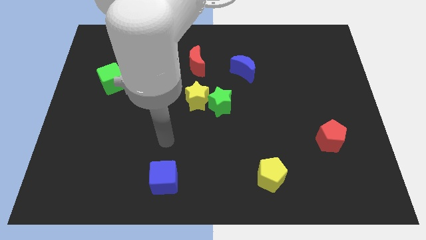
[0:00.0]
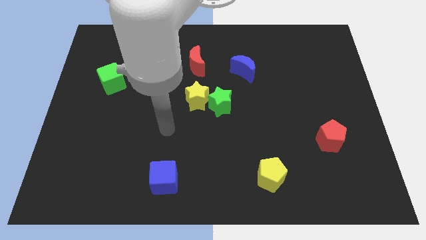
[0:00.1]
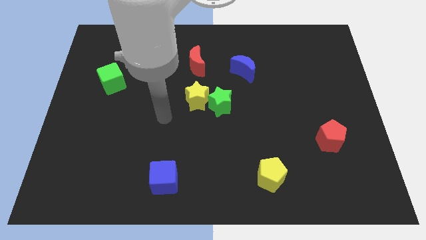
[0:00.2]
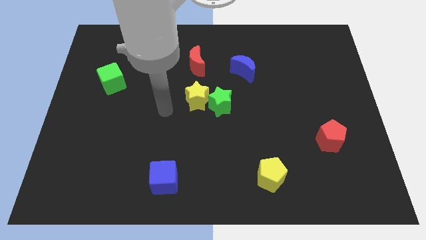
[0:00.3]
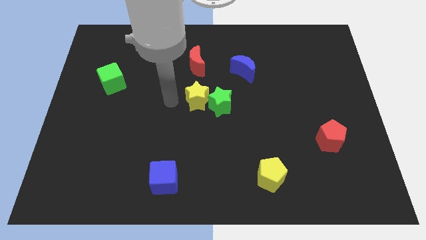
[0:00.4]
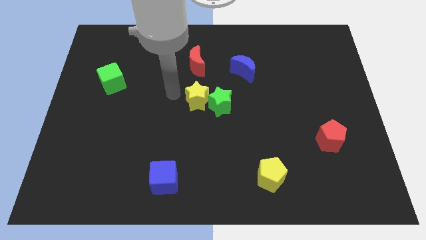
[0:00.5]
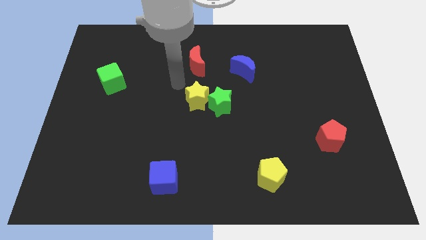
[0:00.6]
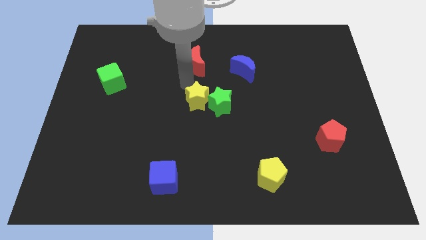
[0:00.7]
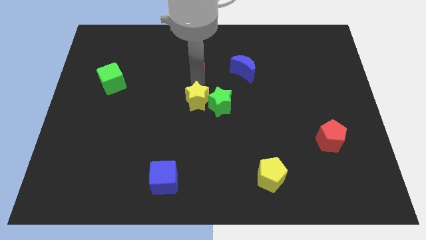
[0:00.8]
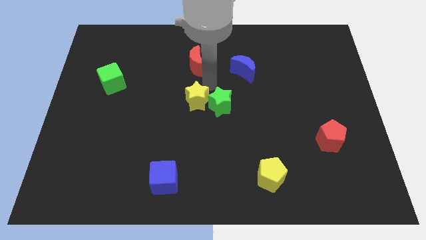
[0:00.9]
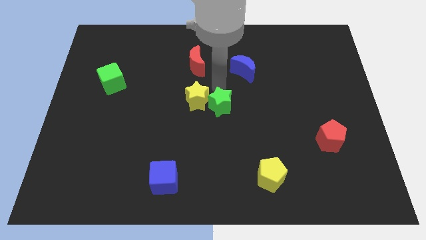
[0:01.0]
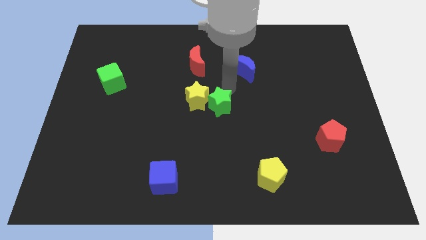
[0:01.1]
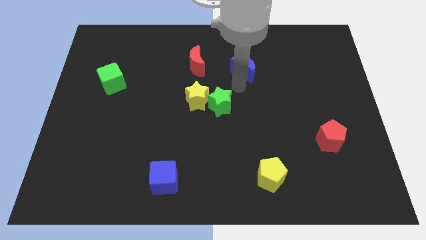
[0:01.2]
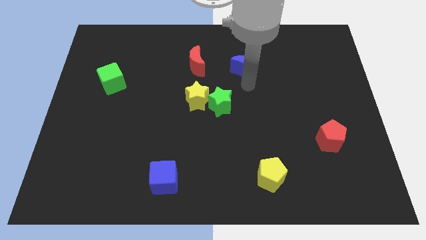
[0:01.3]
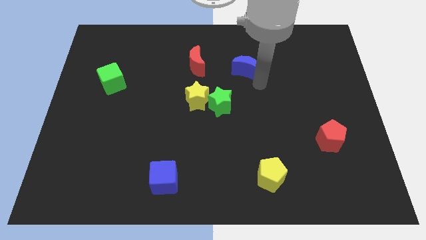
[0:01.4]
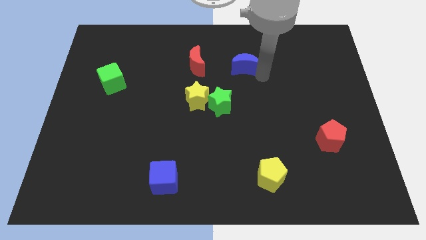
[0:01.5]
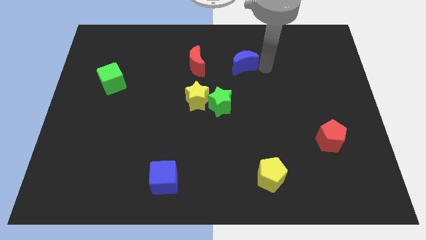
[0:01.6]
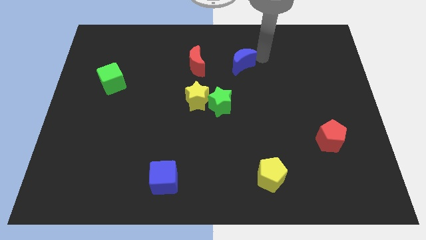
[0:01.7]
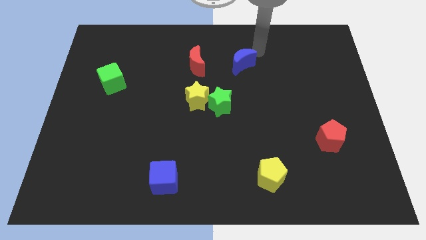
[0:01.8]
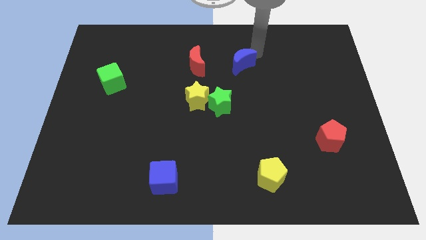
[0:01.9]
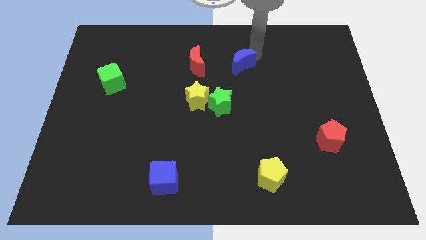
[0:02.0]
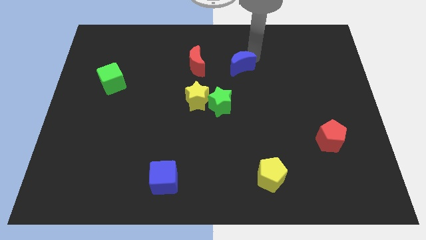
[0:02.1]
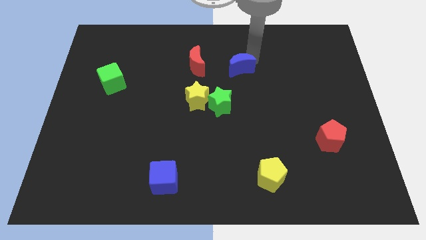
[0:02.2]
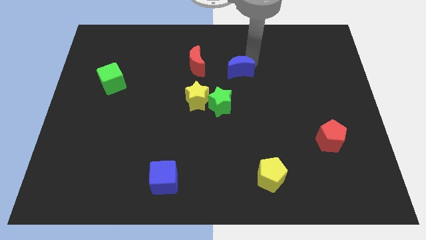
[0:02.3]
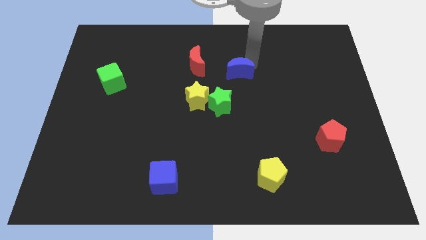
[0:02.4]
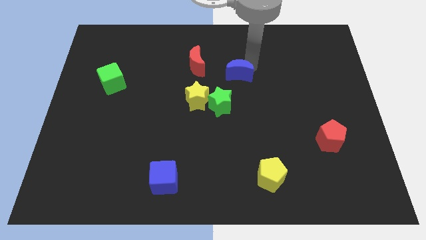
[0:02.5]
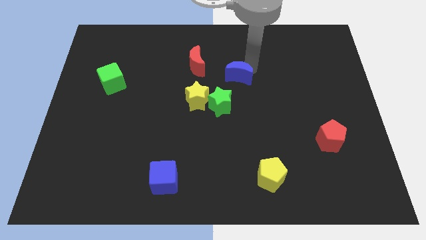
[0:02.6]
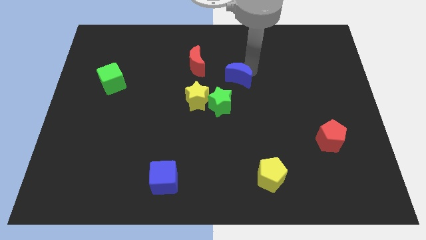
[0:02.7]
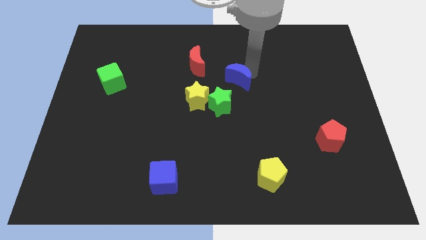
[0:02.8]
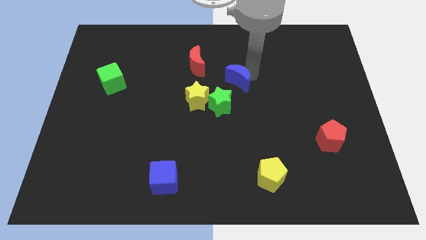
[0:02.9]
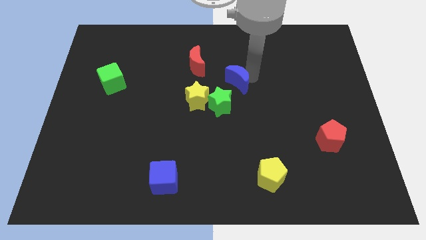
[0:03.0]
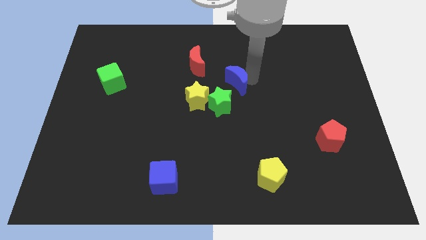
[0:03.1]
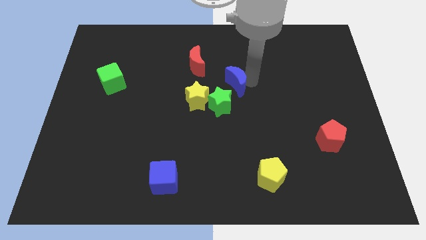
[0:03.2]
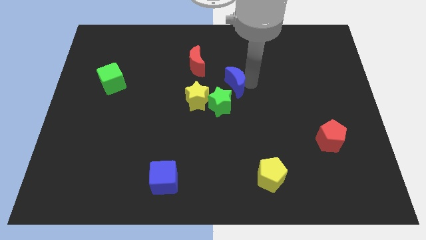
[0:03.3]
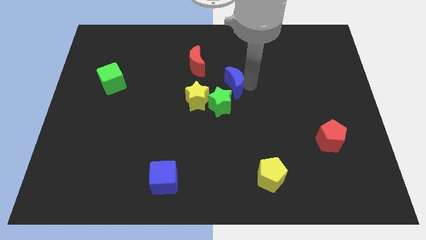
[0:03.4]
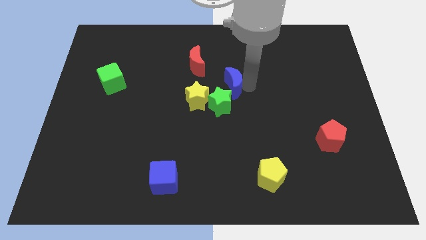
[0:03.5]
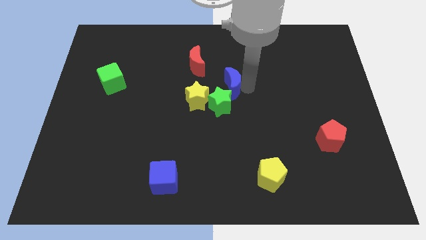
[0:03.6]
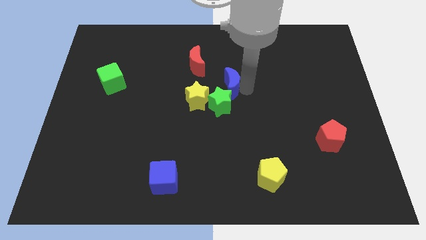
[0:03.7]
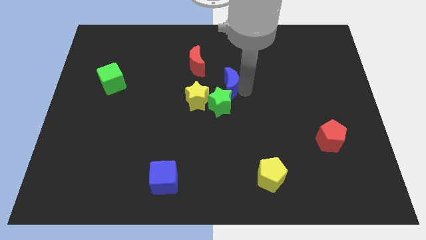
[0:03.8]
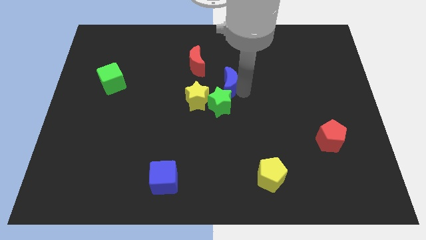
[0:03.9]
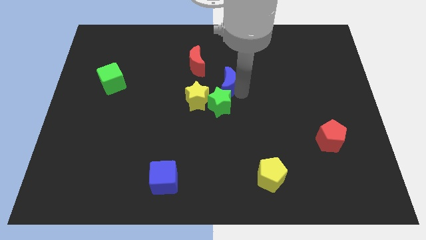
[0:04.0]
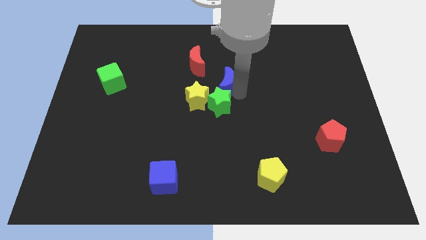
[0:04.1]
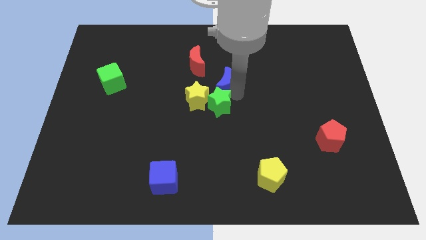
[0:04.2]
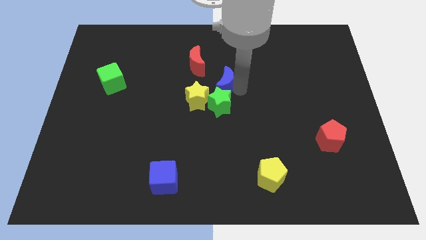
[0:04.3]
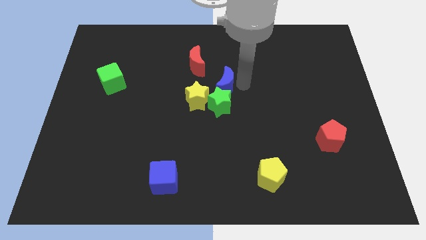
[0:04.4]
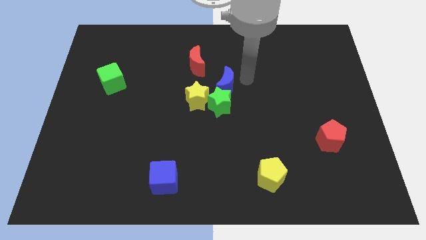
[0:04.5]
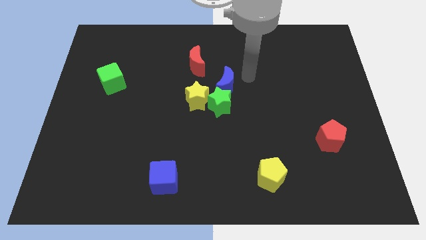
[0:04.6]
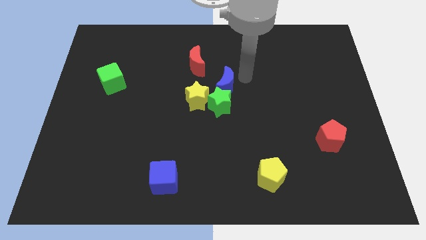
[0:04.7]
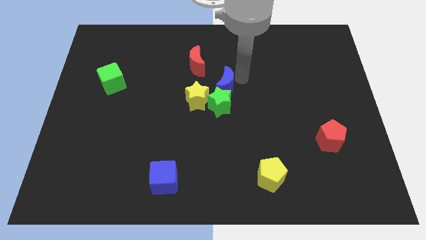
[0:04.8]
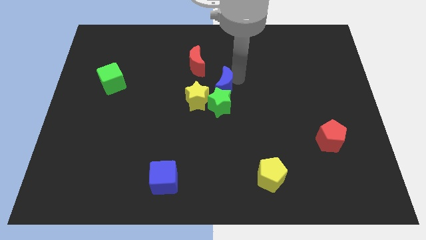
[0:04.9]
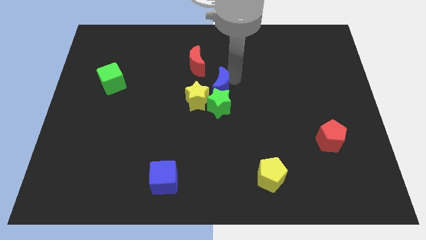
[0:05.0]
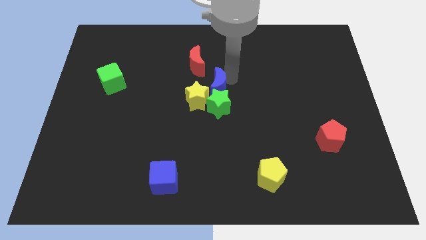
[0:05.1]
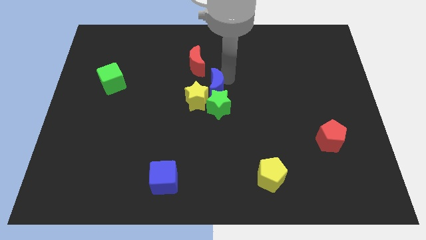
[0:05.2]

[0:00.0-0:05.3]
move the blue moon towards the yellow star

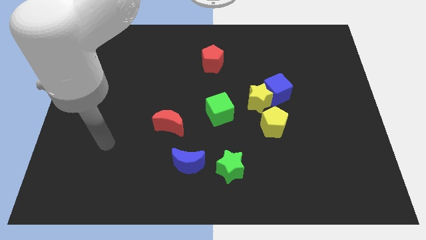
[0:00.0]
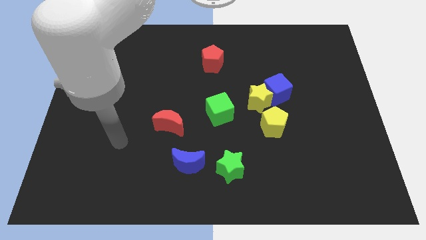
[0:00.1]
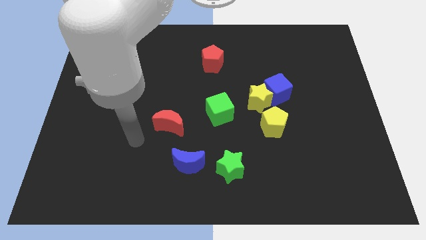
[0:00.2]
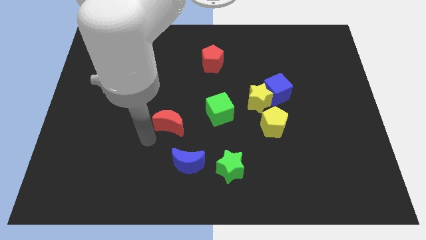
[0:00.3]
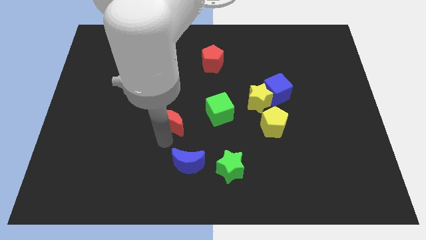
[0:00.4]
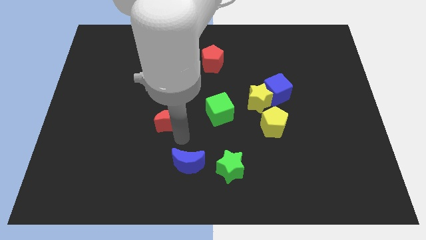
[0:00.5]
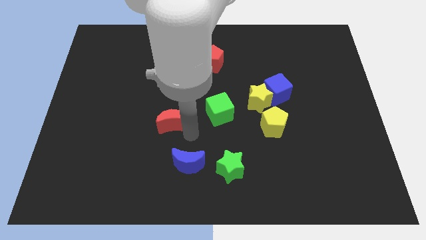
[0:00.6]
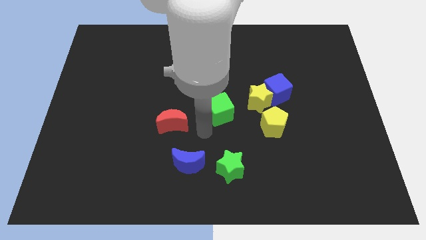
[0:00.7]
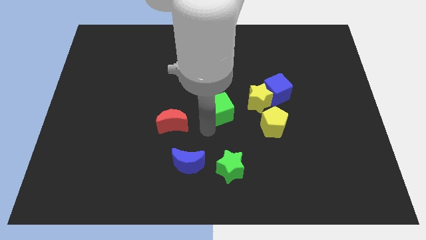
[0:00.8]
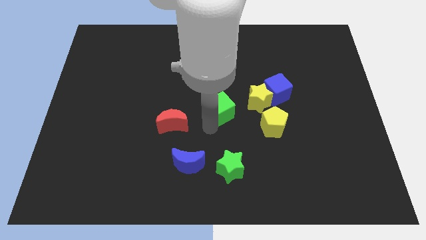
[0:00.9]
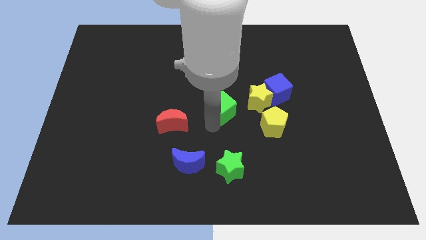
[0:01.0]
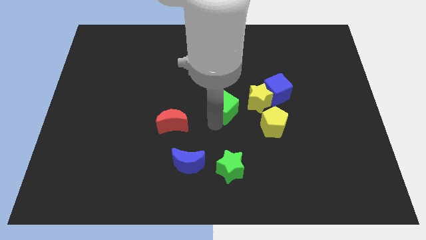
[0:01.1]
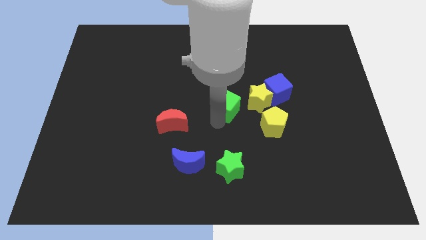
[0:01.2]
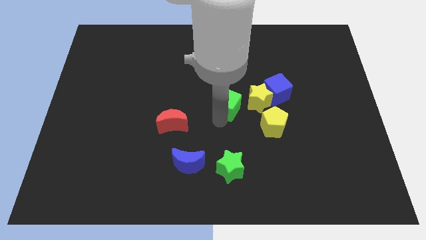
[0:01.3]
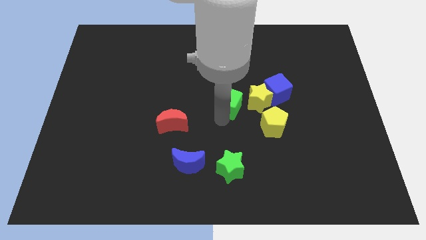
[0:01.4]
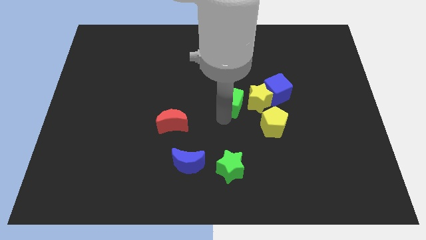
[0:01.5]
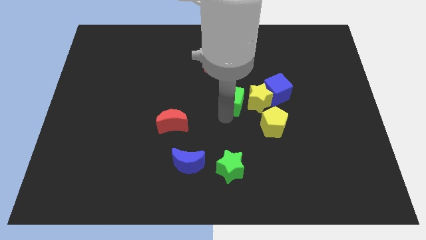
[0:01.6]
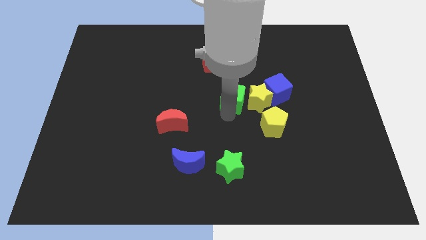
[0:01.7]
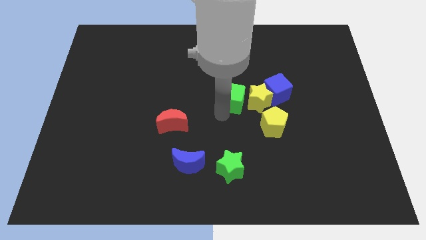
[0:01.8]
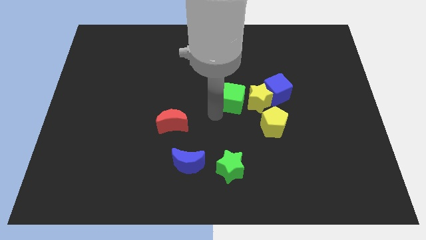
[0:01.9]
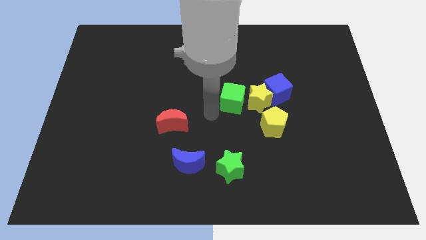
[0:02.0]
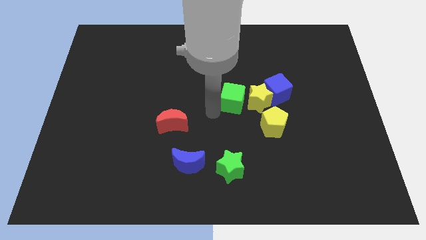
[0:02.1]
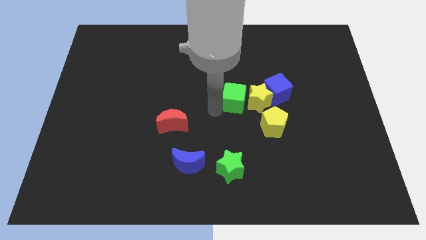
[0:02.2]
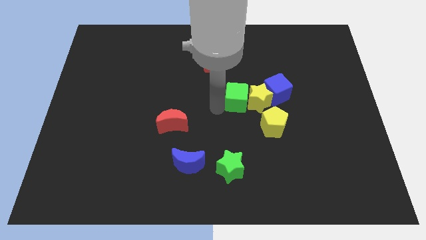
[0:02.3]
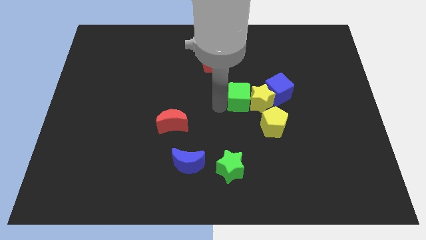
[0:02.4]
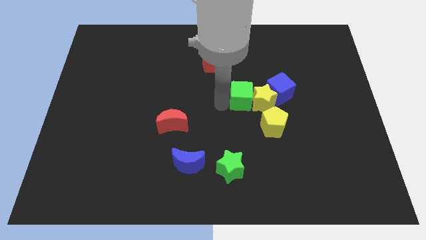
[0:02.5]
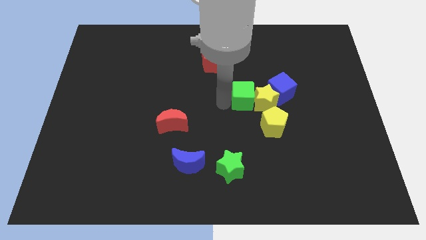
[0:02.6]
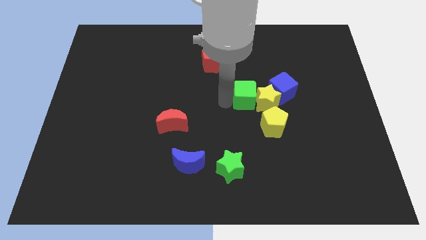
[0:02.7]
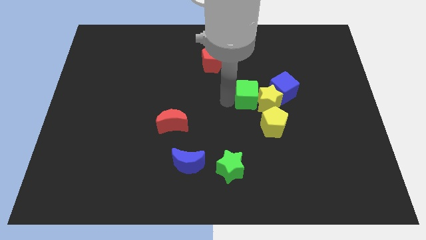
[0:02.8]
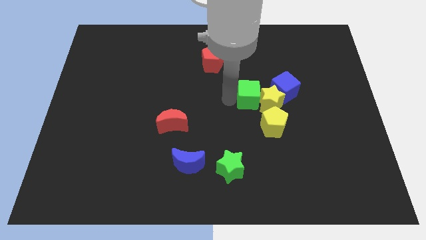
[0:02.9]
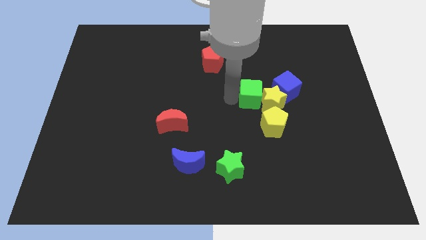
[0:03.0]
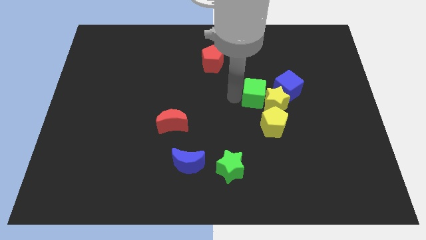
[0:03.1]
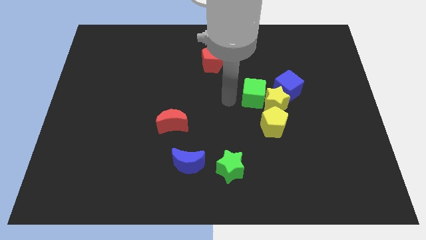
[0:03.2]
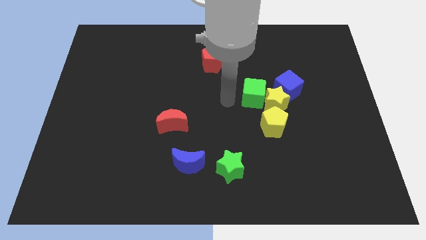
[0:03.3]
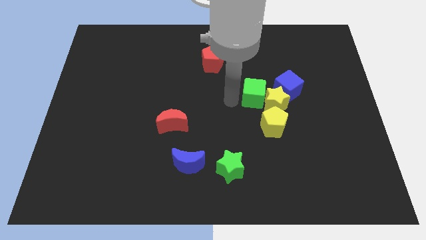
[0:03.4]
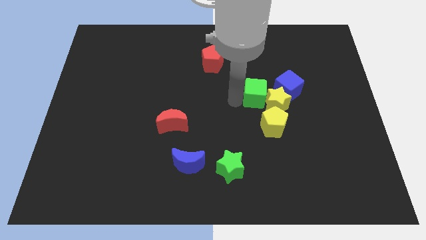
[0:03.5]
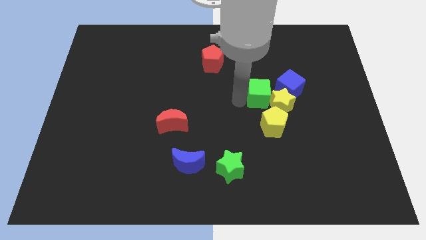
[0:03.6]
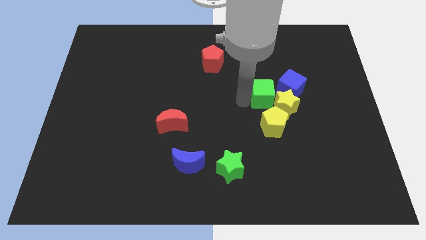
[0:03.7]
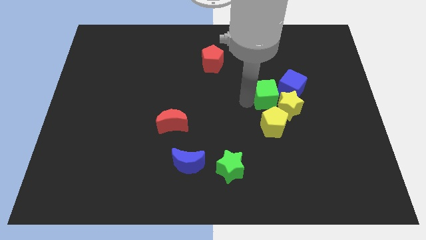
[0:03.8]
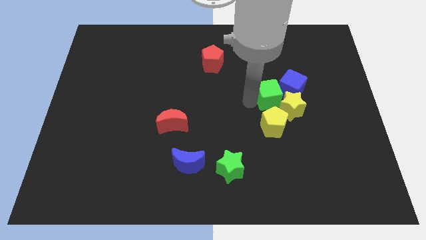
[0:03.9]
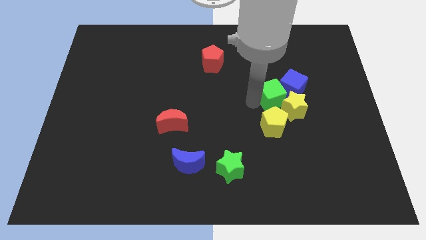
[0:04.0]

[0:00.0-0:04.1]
move the green cube to the blue cube
